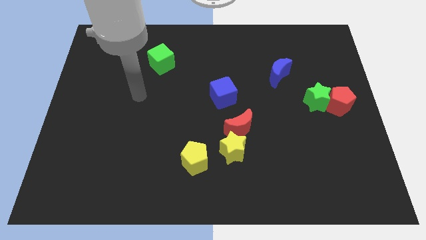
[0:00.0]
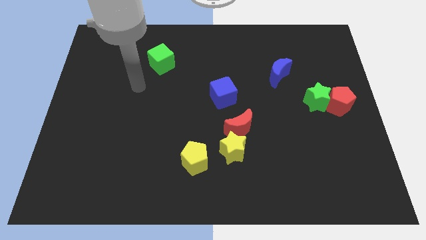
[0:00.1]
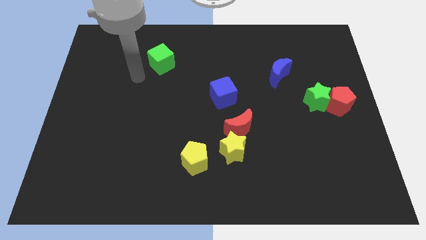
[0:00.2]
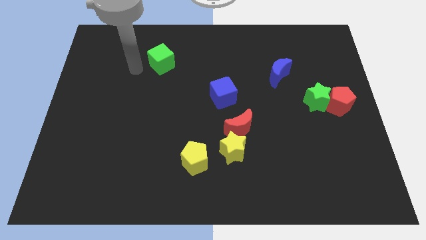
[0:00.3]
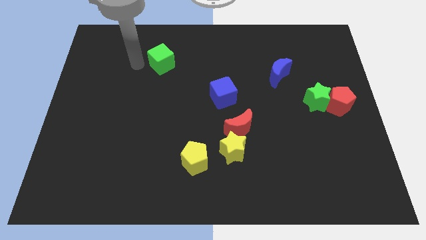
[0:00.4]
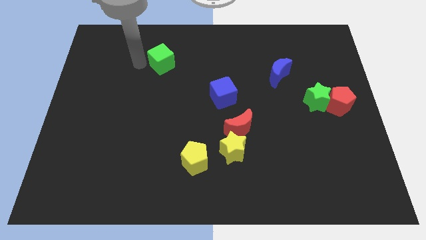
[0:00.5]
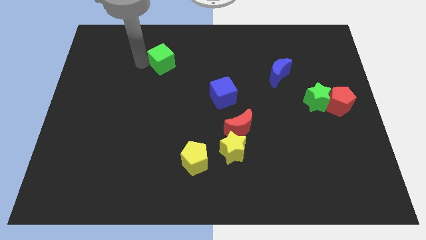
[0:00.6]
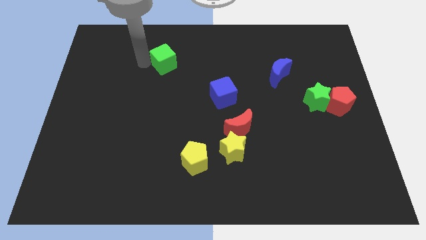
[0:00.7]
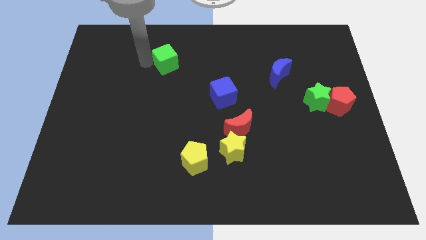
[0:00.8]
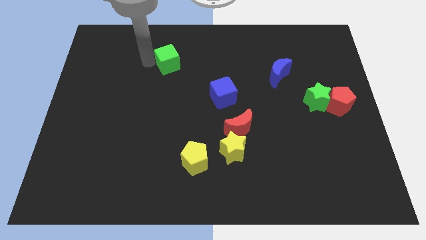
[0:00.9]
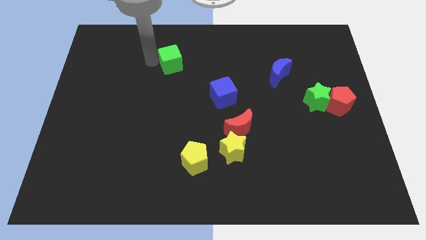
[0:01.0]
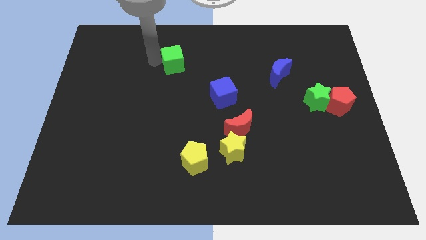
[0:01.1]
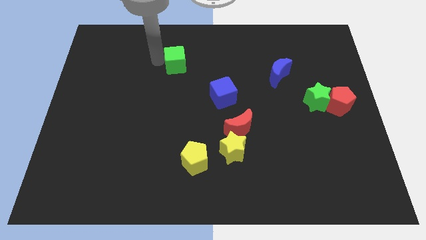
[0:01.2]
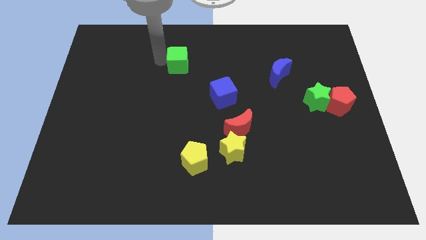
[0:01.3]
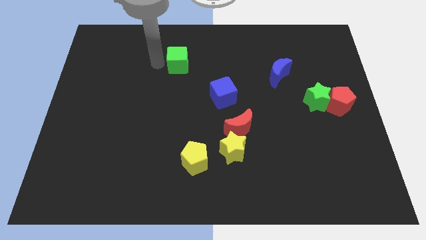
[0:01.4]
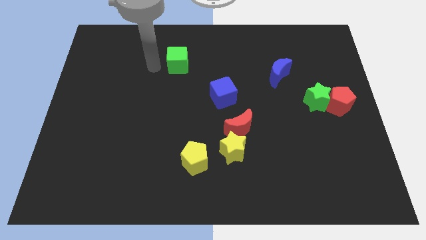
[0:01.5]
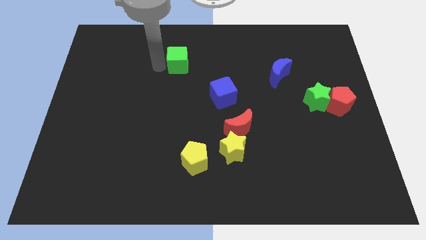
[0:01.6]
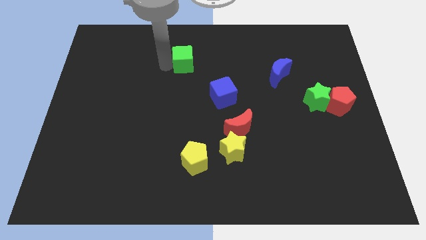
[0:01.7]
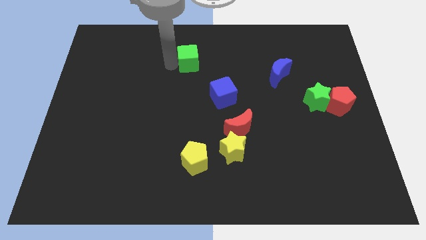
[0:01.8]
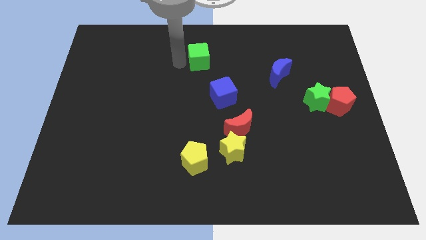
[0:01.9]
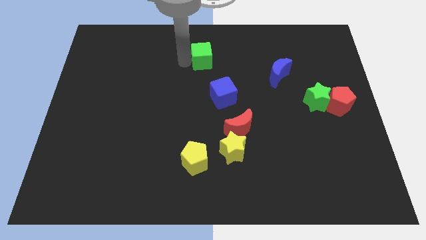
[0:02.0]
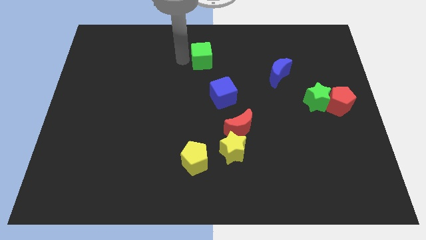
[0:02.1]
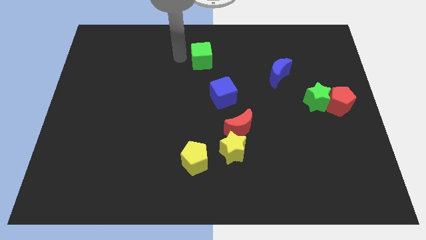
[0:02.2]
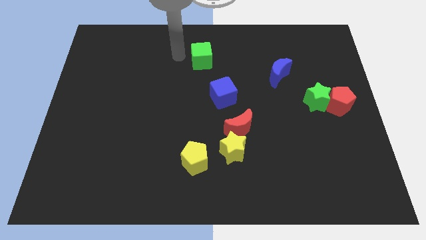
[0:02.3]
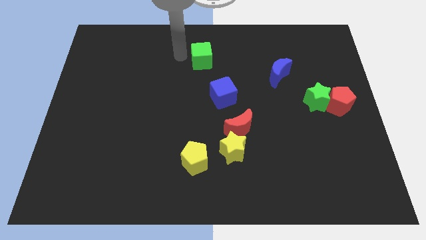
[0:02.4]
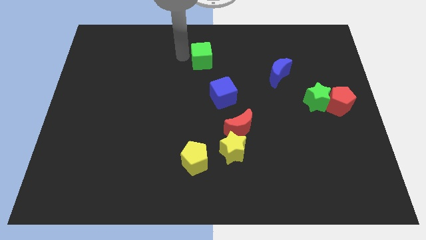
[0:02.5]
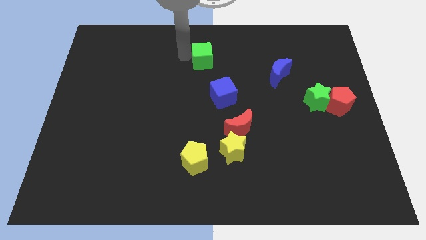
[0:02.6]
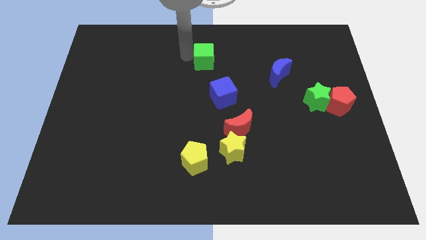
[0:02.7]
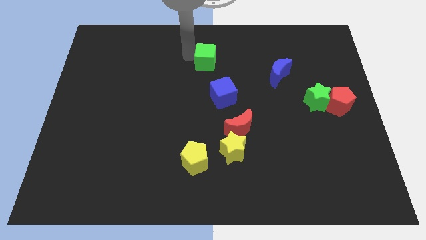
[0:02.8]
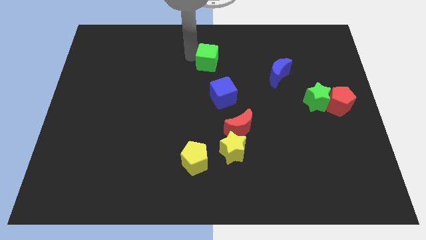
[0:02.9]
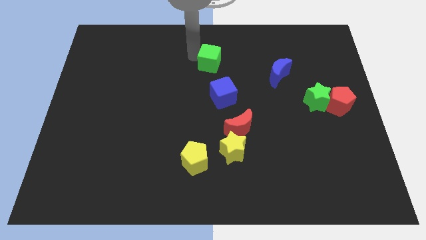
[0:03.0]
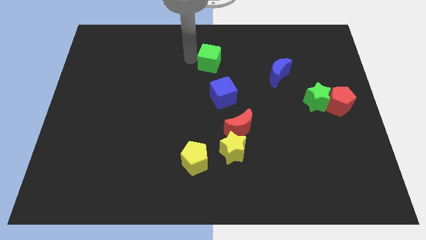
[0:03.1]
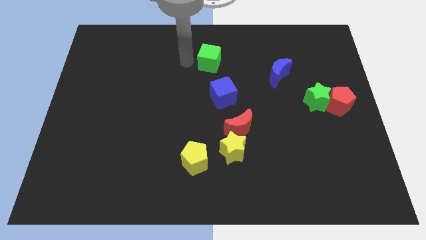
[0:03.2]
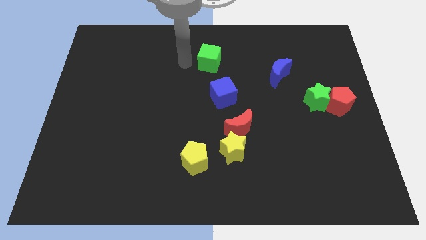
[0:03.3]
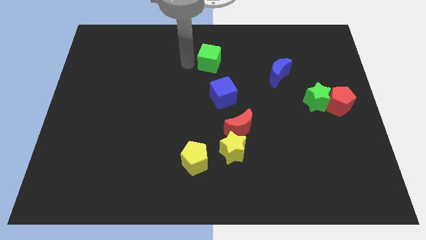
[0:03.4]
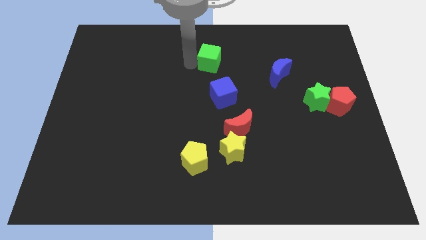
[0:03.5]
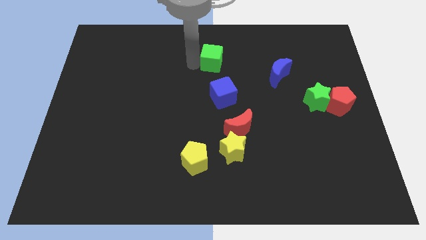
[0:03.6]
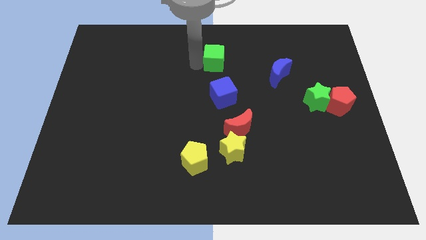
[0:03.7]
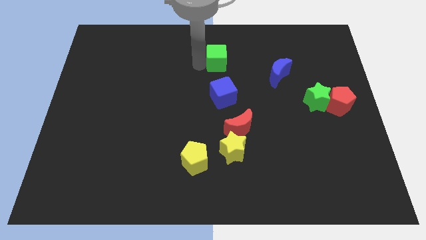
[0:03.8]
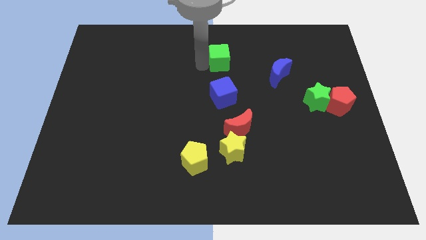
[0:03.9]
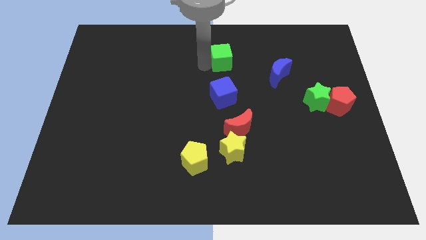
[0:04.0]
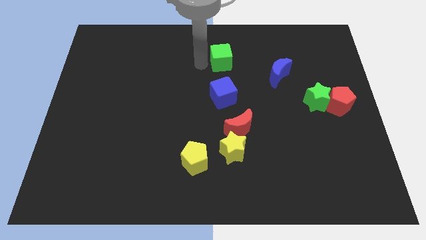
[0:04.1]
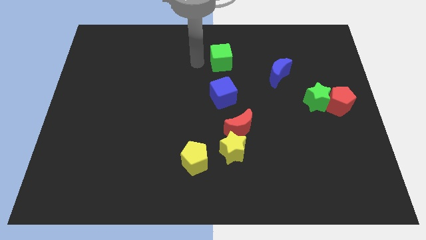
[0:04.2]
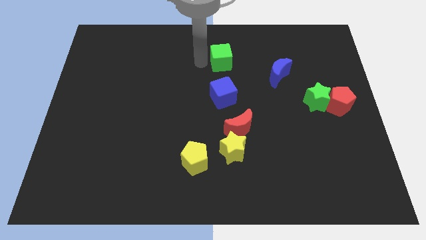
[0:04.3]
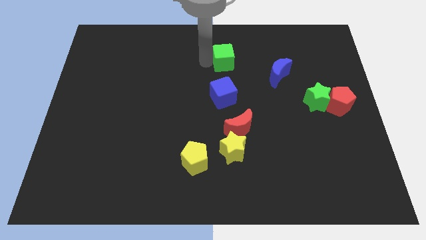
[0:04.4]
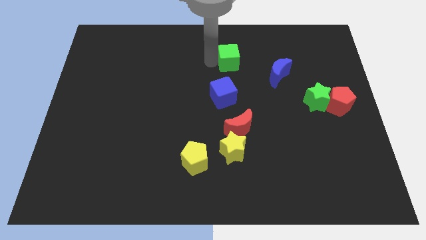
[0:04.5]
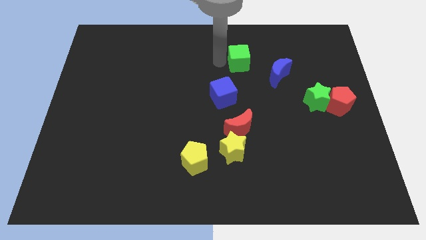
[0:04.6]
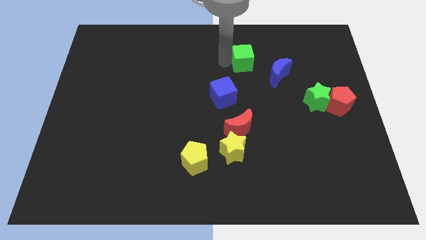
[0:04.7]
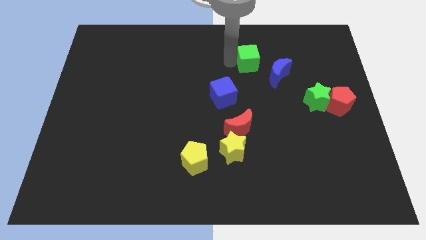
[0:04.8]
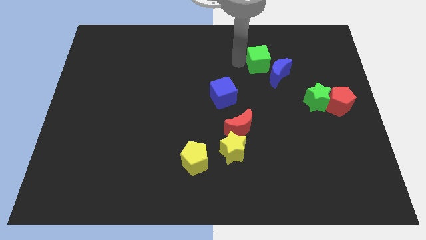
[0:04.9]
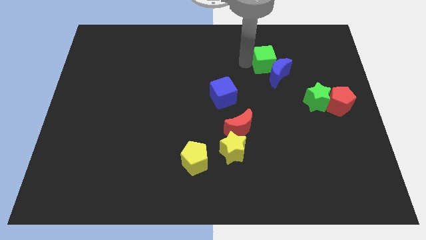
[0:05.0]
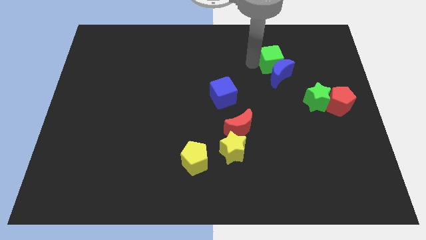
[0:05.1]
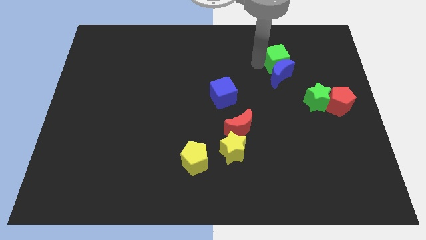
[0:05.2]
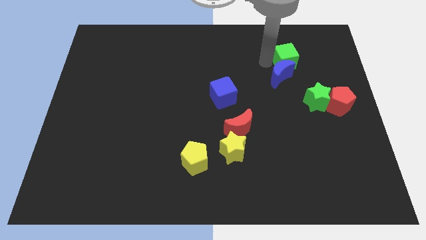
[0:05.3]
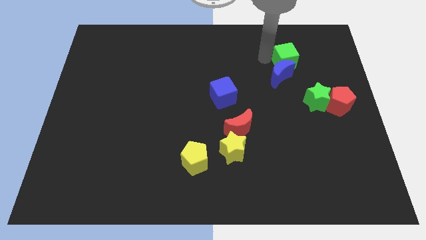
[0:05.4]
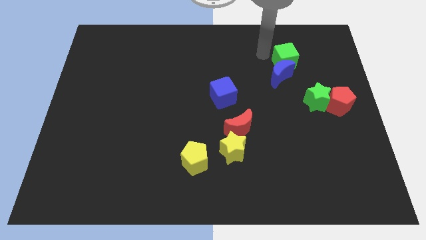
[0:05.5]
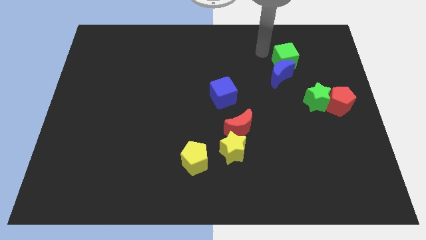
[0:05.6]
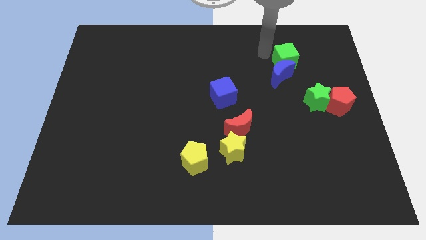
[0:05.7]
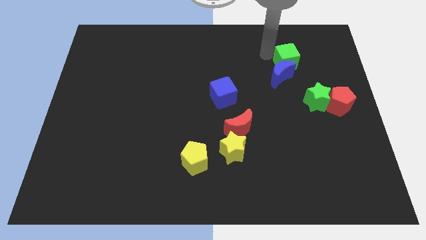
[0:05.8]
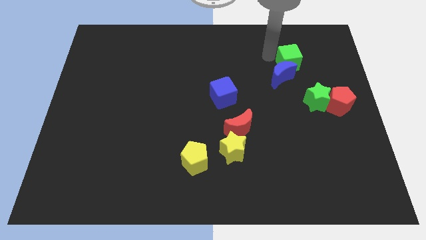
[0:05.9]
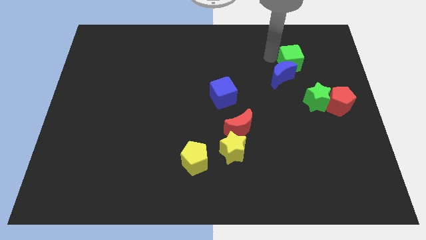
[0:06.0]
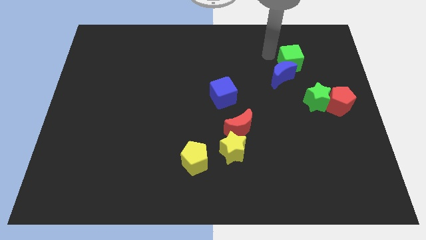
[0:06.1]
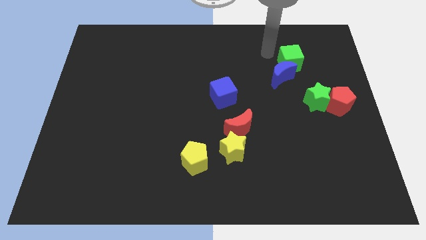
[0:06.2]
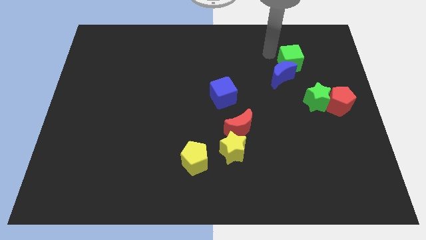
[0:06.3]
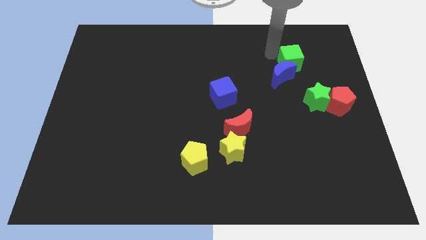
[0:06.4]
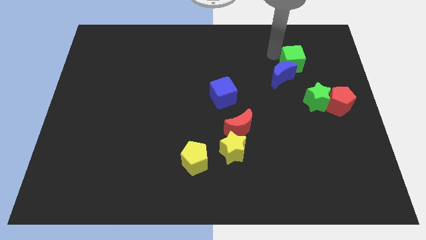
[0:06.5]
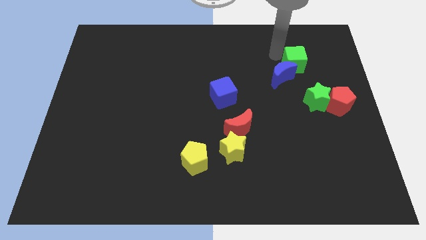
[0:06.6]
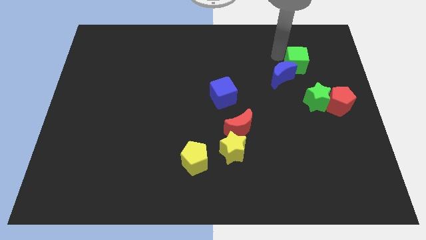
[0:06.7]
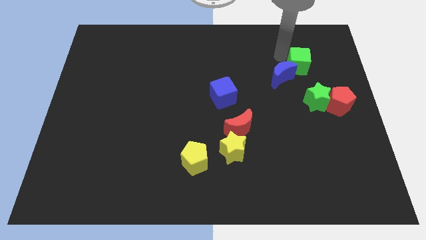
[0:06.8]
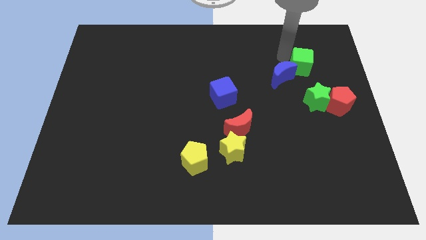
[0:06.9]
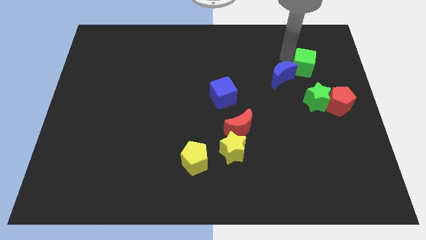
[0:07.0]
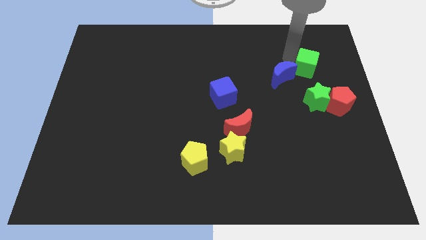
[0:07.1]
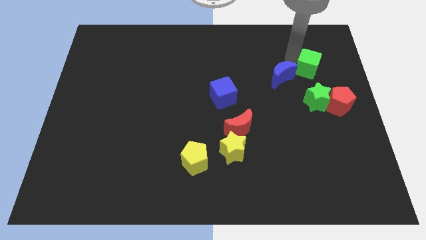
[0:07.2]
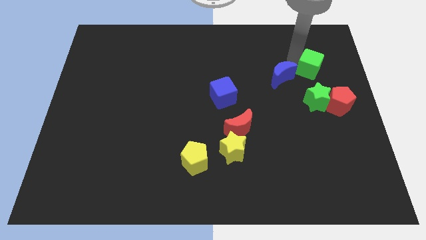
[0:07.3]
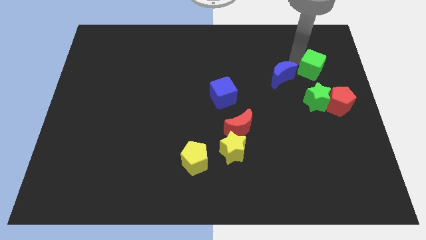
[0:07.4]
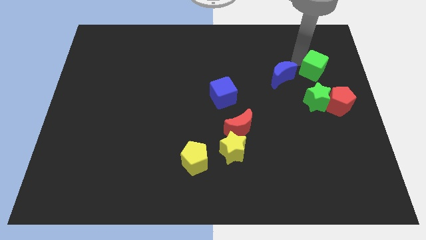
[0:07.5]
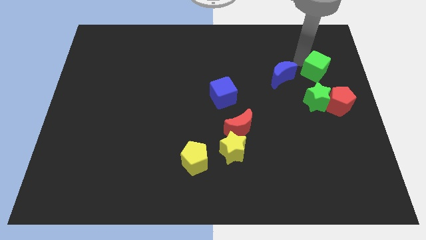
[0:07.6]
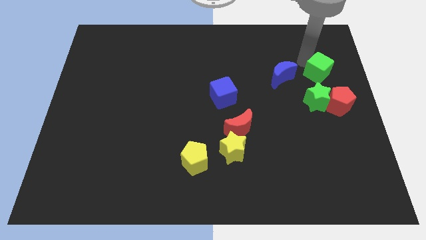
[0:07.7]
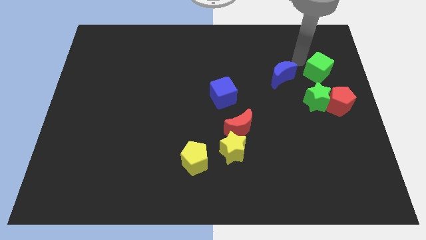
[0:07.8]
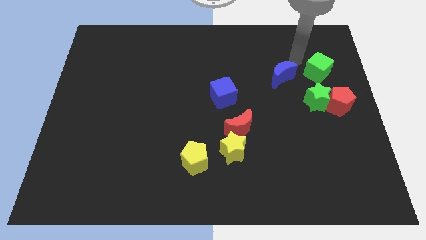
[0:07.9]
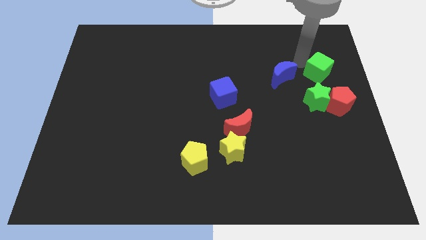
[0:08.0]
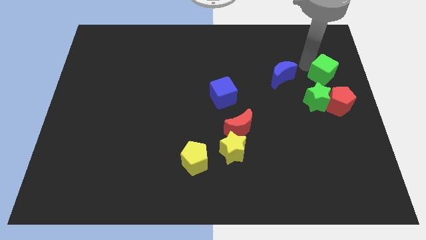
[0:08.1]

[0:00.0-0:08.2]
push the green cube to the center right
